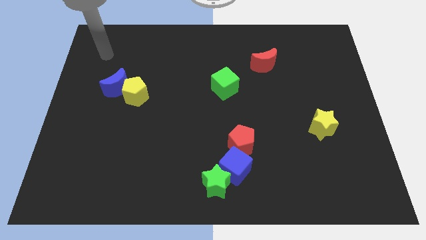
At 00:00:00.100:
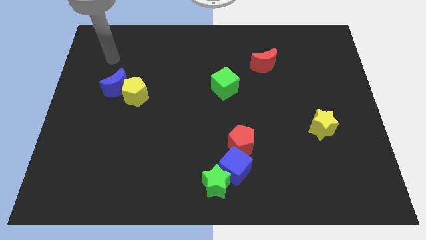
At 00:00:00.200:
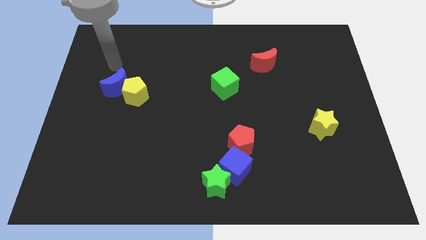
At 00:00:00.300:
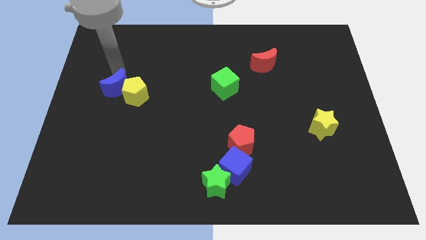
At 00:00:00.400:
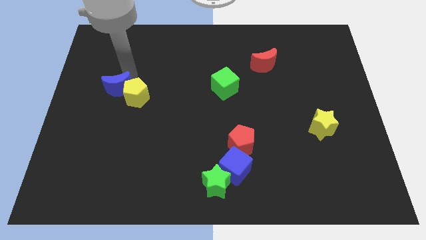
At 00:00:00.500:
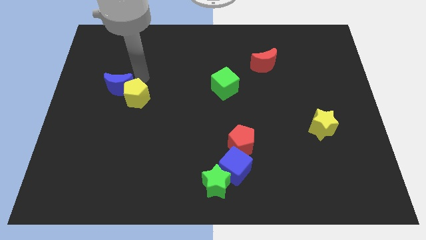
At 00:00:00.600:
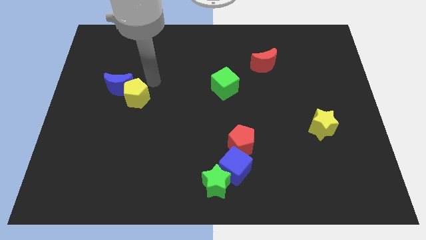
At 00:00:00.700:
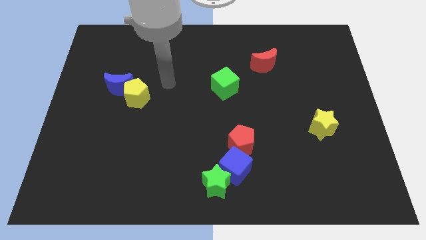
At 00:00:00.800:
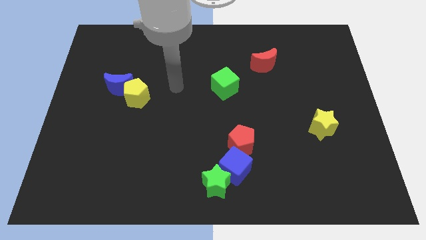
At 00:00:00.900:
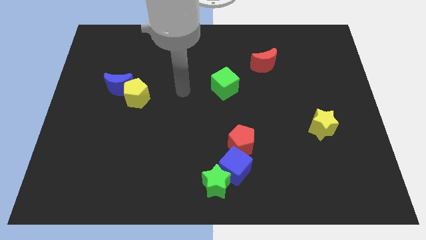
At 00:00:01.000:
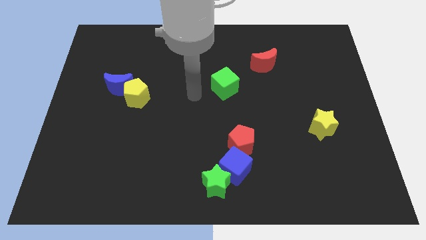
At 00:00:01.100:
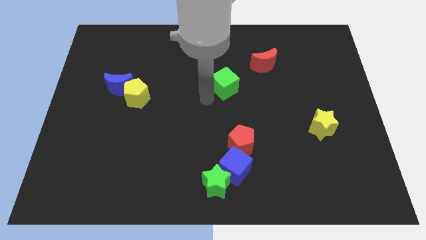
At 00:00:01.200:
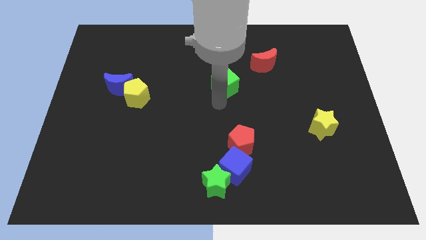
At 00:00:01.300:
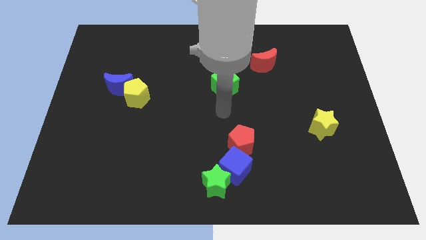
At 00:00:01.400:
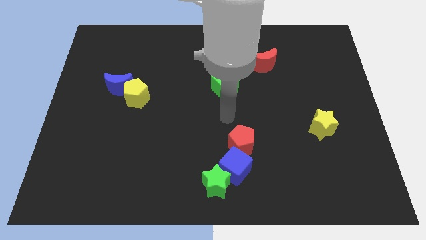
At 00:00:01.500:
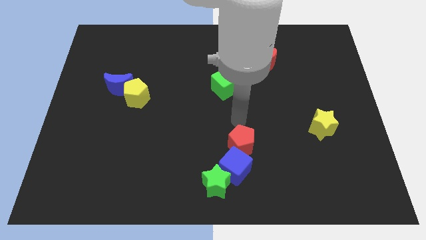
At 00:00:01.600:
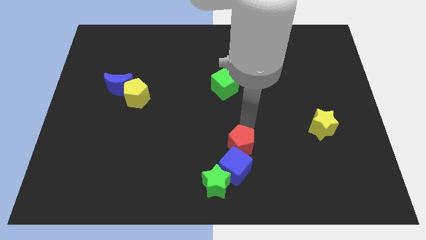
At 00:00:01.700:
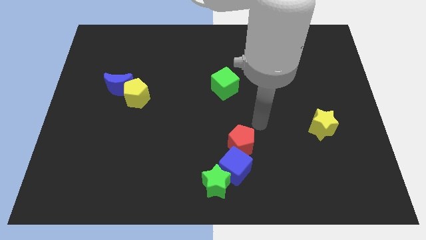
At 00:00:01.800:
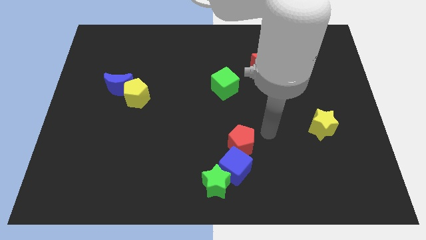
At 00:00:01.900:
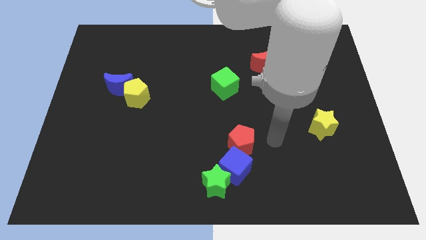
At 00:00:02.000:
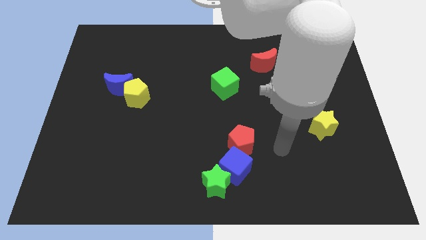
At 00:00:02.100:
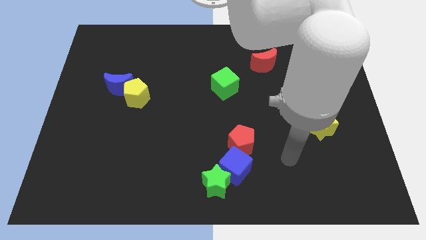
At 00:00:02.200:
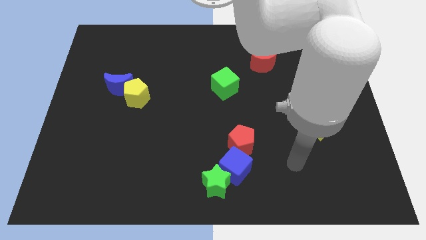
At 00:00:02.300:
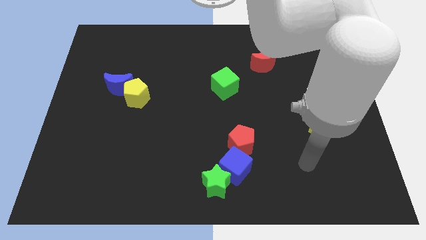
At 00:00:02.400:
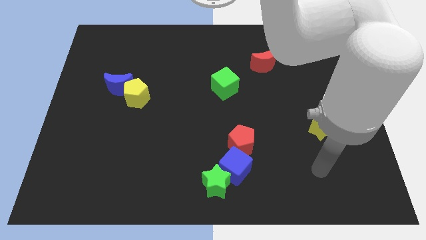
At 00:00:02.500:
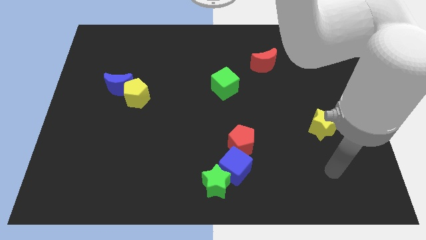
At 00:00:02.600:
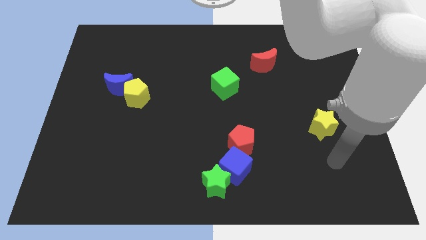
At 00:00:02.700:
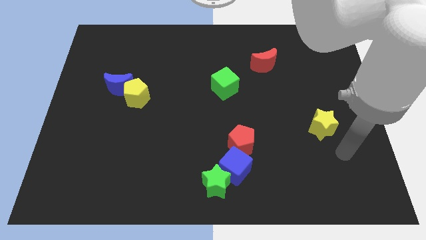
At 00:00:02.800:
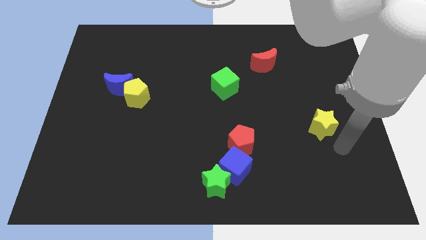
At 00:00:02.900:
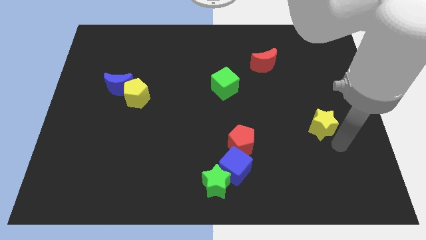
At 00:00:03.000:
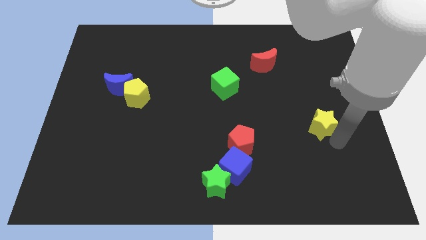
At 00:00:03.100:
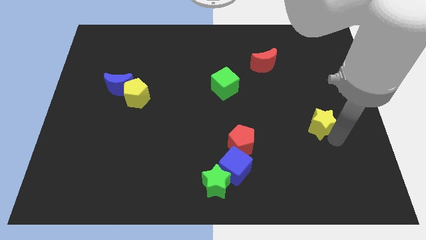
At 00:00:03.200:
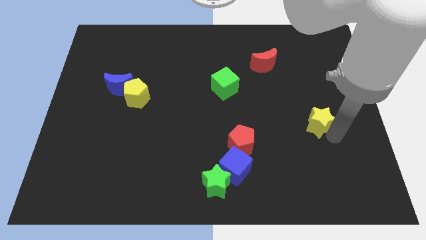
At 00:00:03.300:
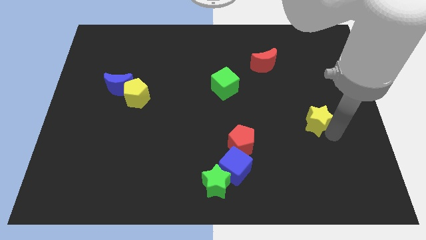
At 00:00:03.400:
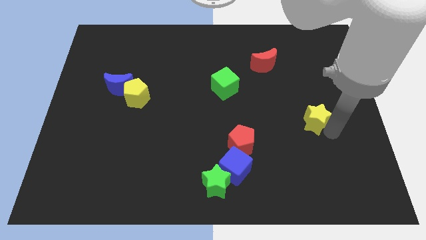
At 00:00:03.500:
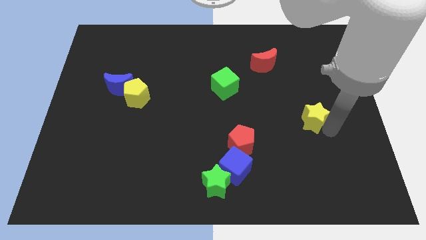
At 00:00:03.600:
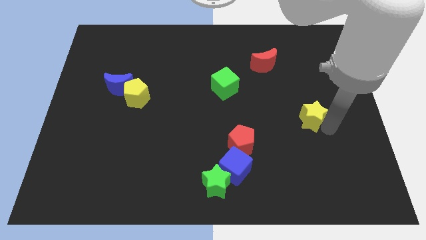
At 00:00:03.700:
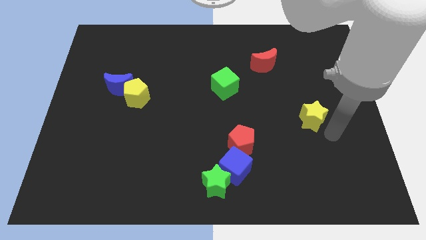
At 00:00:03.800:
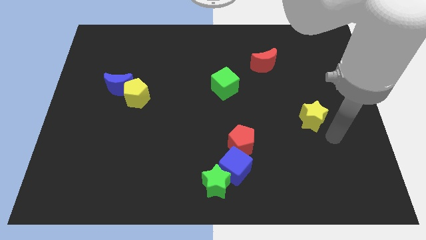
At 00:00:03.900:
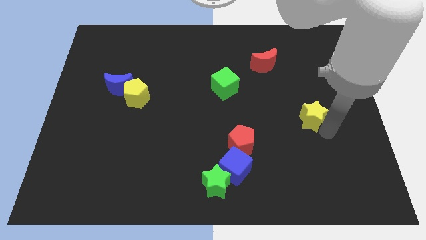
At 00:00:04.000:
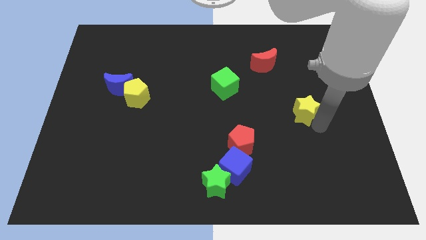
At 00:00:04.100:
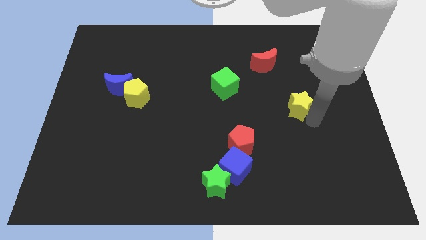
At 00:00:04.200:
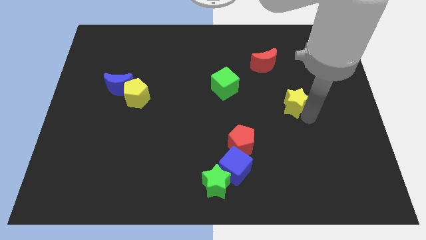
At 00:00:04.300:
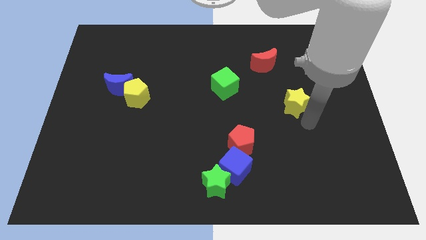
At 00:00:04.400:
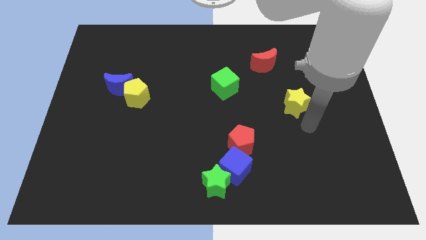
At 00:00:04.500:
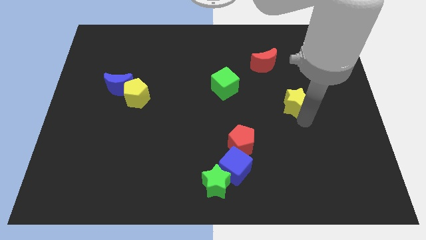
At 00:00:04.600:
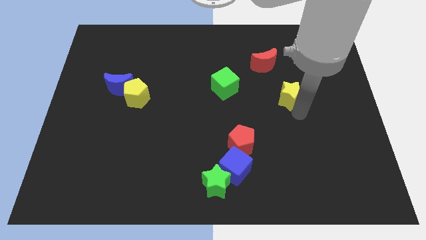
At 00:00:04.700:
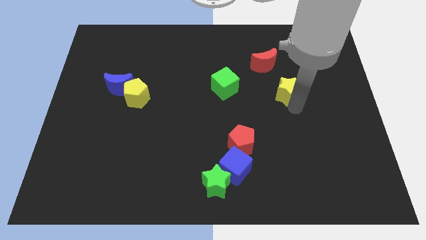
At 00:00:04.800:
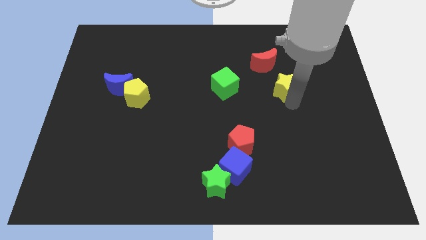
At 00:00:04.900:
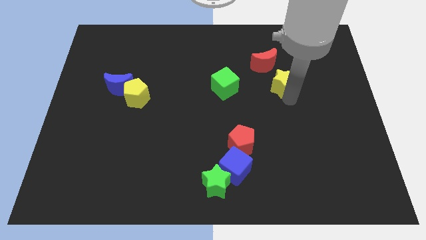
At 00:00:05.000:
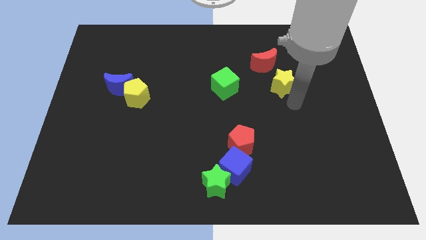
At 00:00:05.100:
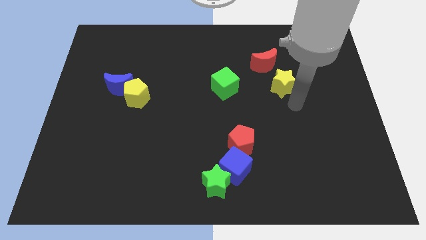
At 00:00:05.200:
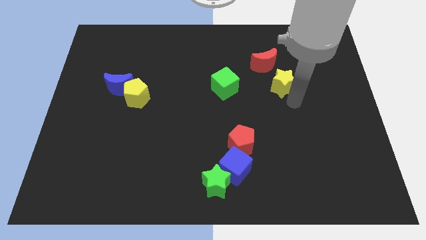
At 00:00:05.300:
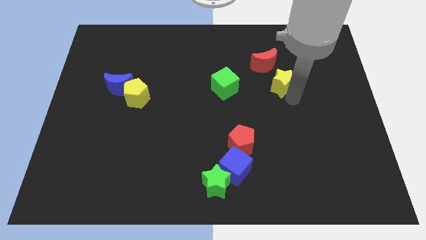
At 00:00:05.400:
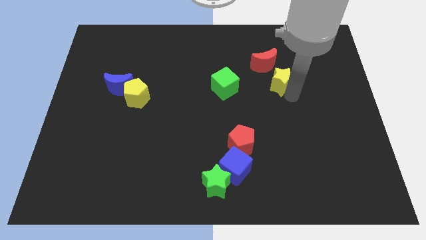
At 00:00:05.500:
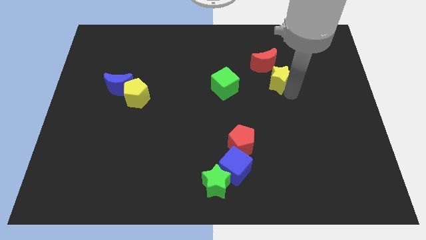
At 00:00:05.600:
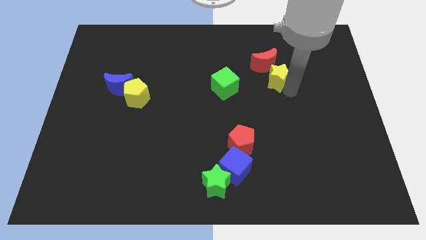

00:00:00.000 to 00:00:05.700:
slide the yellow star to the red moon

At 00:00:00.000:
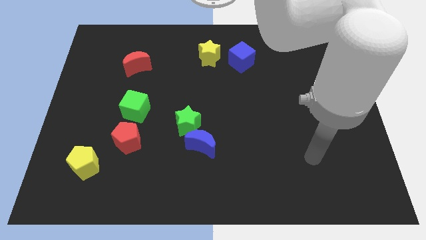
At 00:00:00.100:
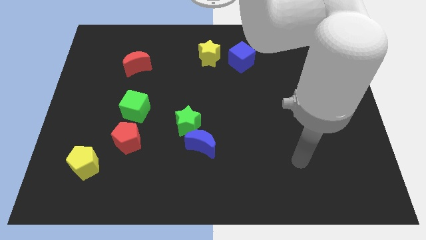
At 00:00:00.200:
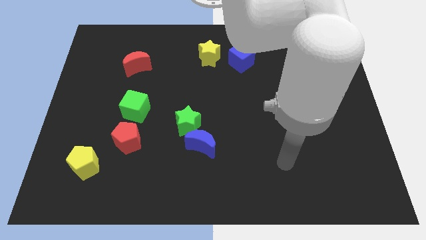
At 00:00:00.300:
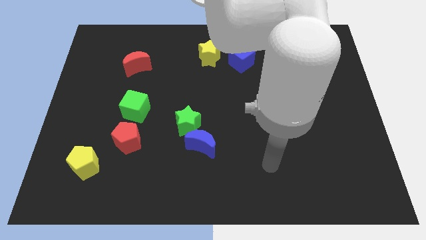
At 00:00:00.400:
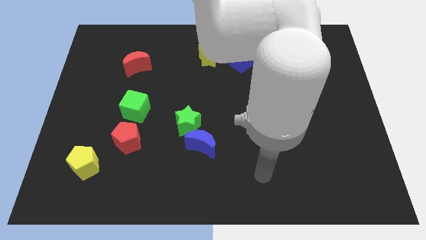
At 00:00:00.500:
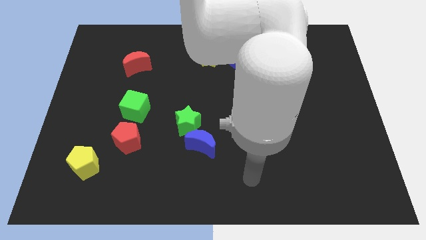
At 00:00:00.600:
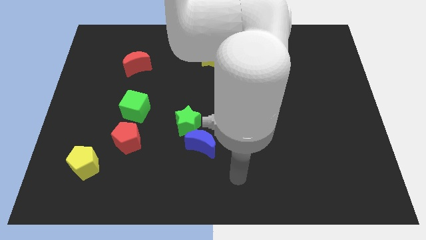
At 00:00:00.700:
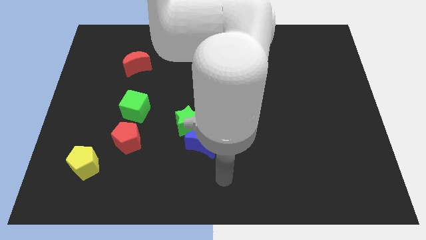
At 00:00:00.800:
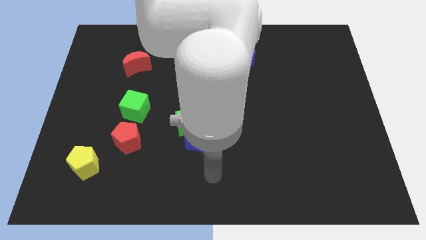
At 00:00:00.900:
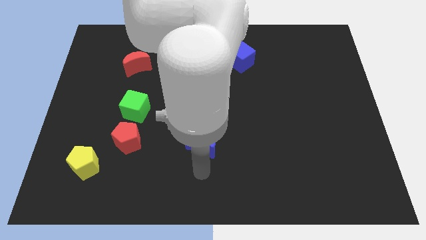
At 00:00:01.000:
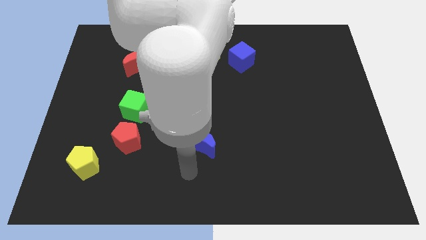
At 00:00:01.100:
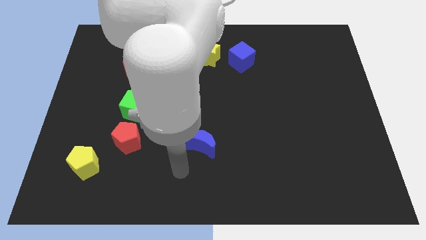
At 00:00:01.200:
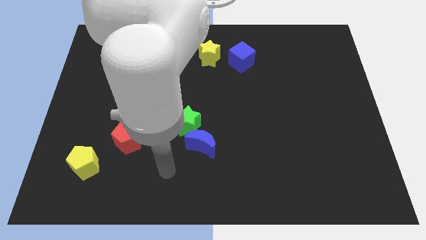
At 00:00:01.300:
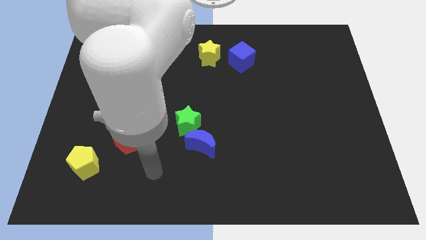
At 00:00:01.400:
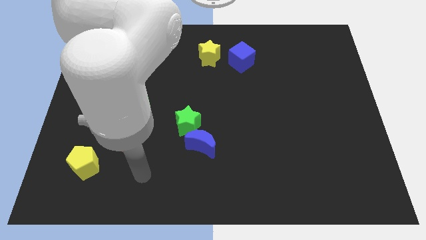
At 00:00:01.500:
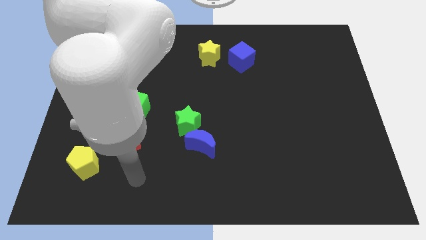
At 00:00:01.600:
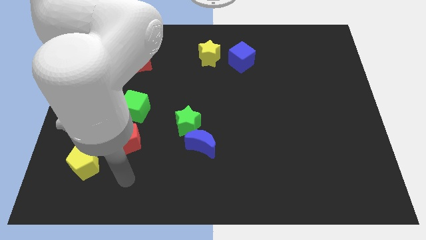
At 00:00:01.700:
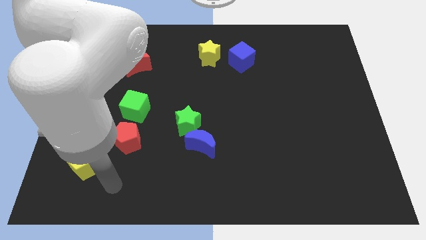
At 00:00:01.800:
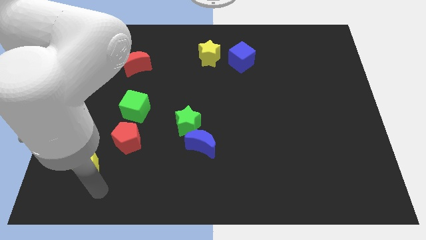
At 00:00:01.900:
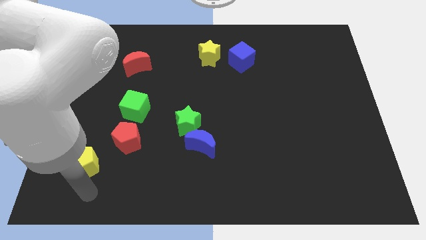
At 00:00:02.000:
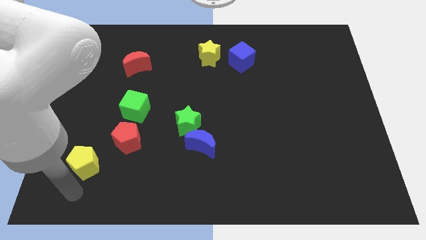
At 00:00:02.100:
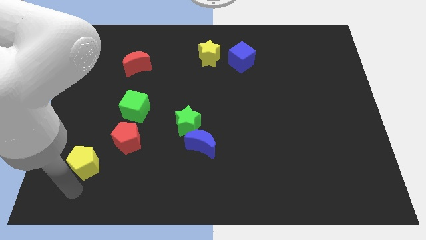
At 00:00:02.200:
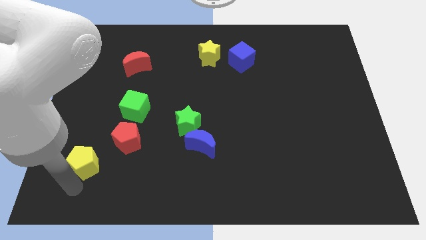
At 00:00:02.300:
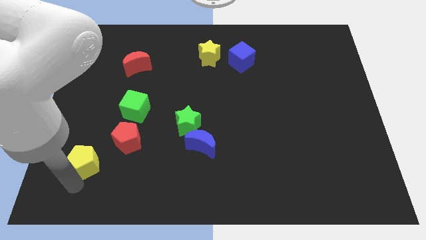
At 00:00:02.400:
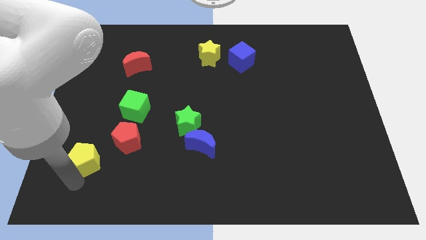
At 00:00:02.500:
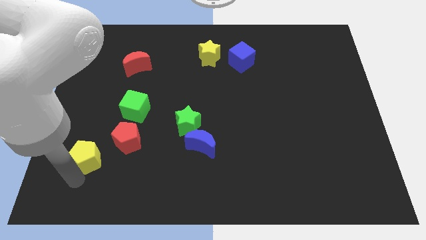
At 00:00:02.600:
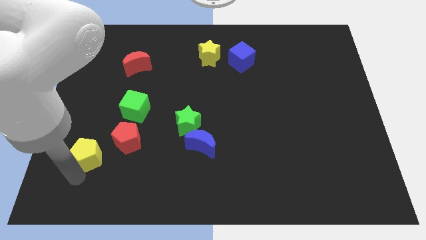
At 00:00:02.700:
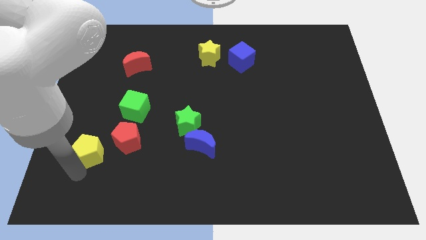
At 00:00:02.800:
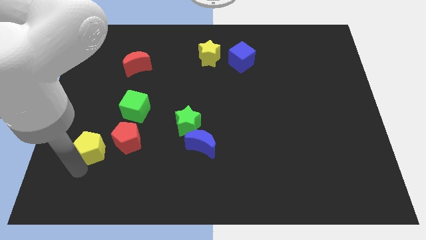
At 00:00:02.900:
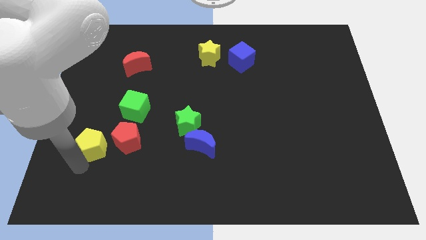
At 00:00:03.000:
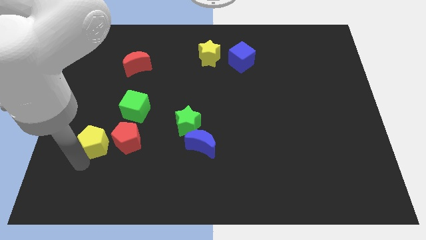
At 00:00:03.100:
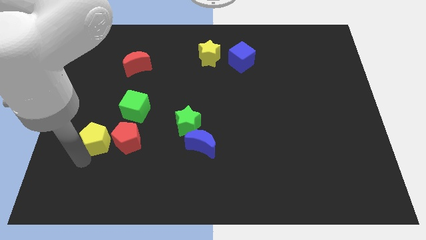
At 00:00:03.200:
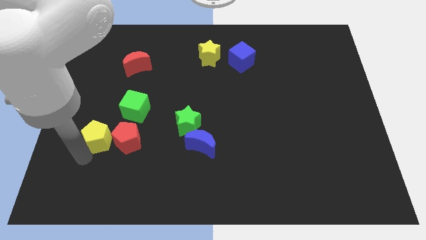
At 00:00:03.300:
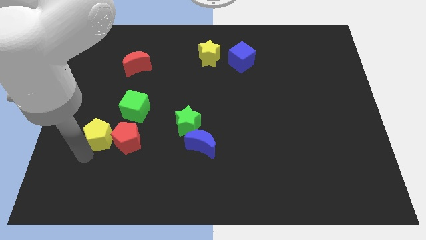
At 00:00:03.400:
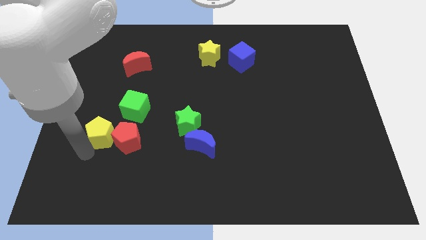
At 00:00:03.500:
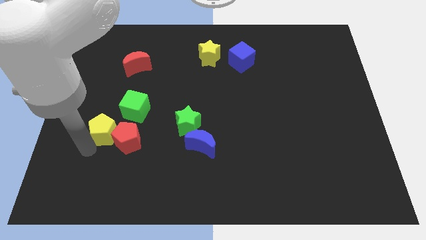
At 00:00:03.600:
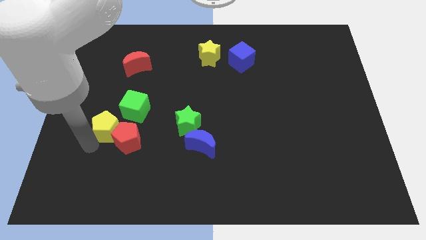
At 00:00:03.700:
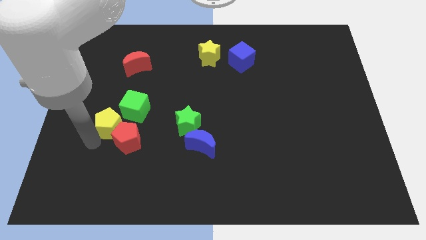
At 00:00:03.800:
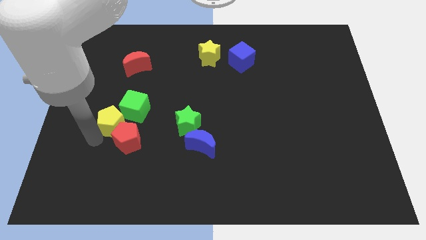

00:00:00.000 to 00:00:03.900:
put the yellow pentagon next to the green cube
